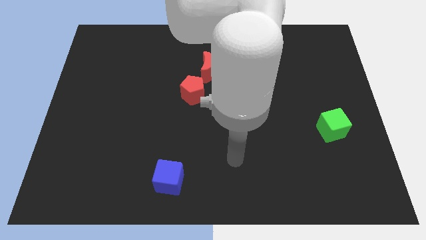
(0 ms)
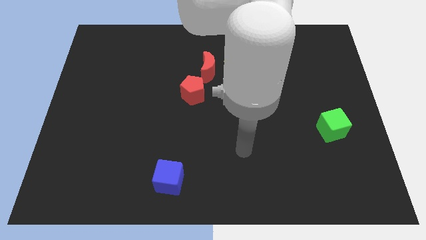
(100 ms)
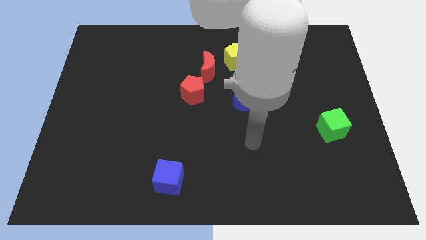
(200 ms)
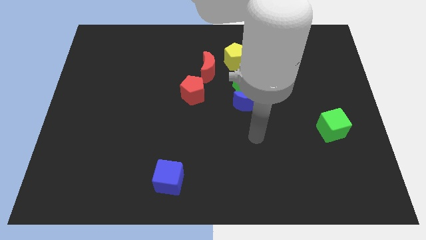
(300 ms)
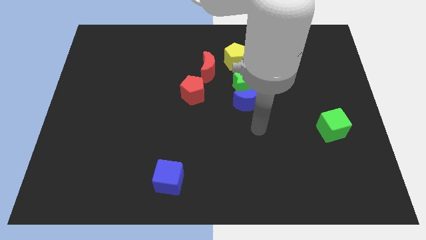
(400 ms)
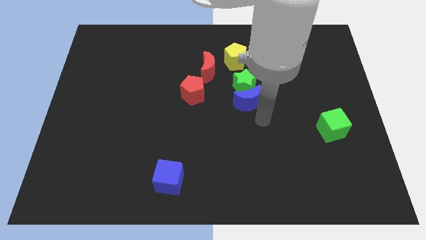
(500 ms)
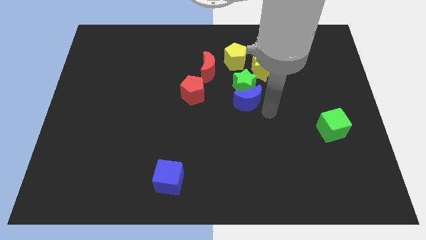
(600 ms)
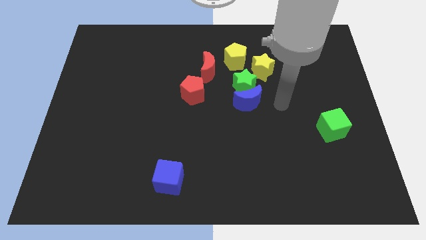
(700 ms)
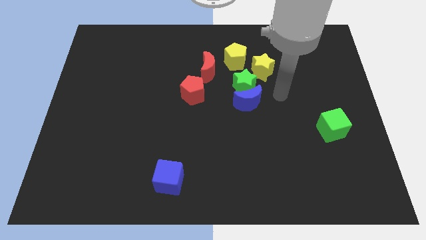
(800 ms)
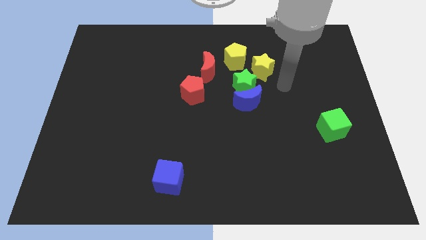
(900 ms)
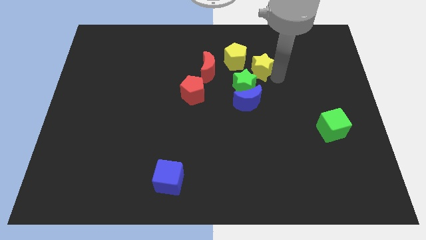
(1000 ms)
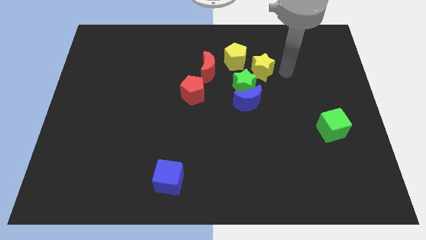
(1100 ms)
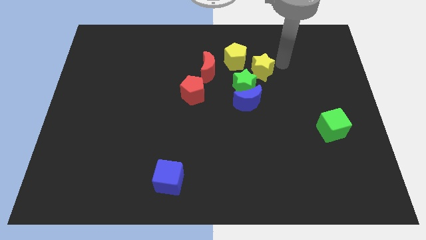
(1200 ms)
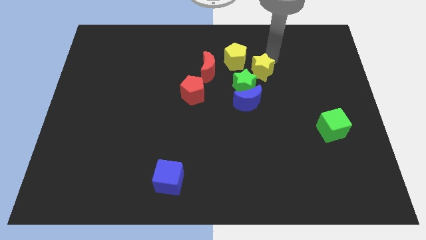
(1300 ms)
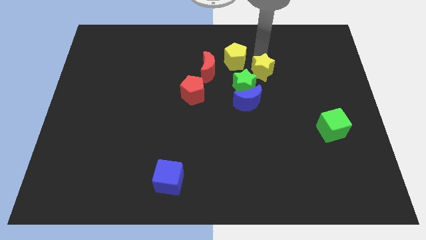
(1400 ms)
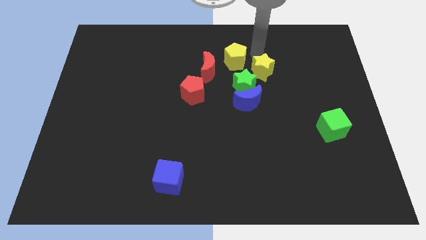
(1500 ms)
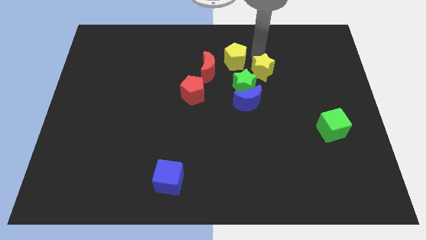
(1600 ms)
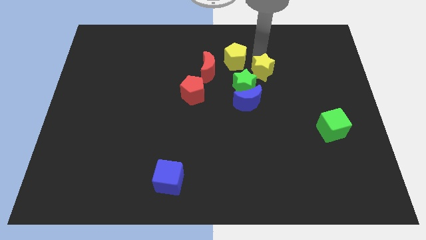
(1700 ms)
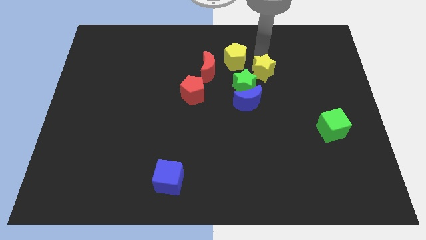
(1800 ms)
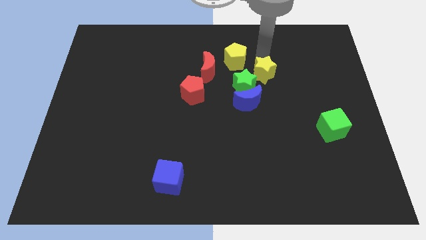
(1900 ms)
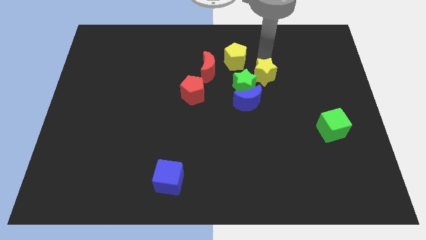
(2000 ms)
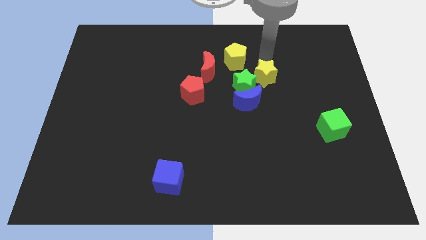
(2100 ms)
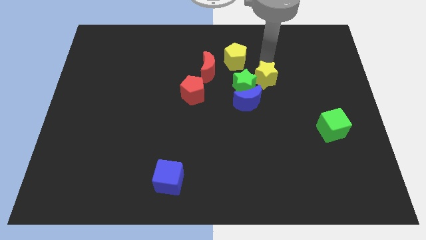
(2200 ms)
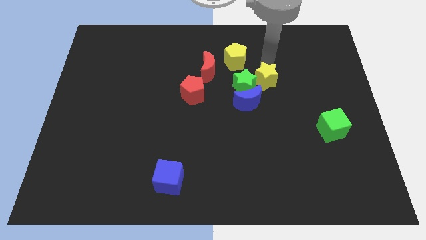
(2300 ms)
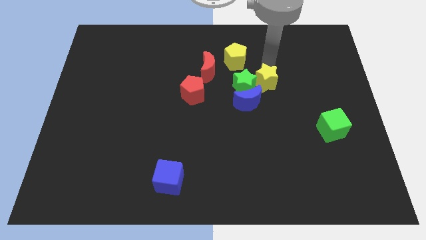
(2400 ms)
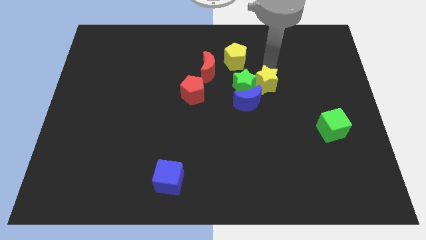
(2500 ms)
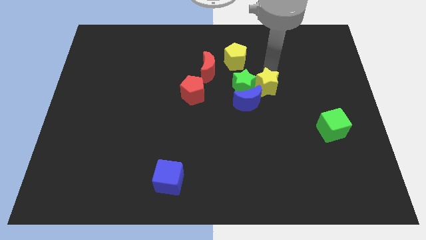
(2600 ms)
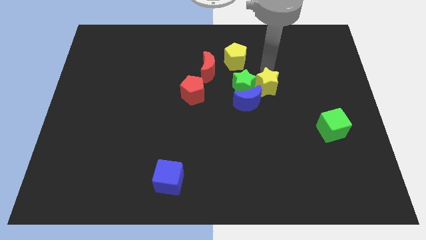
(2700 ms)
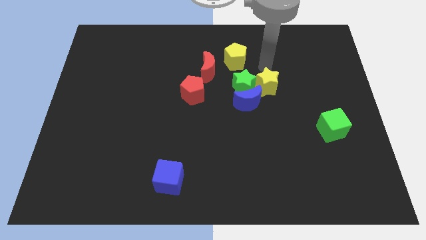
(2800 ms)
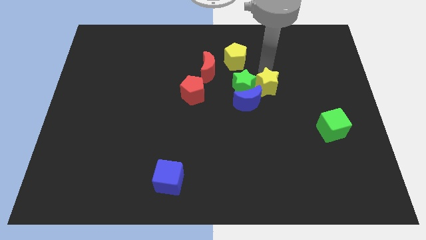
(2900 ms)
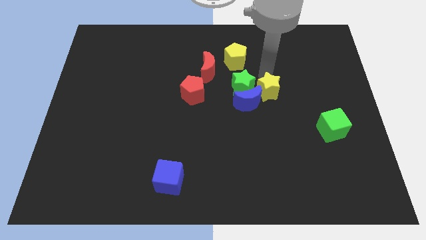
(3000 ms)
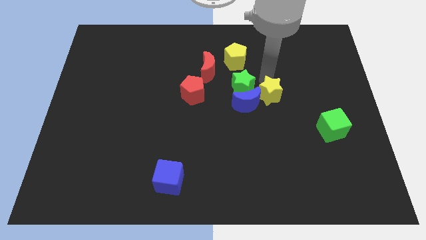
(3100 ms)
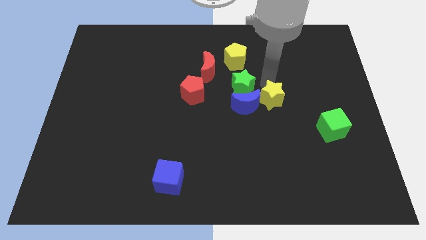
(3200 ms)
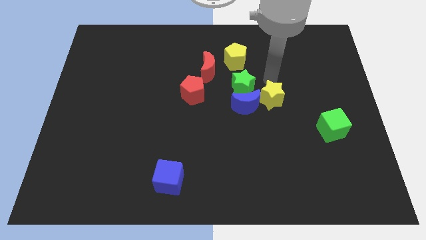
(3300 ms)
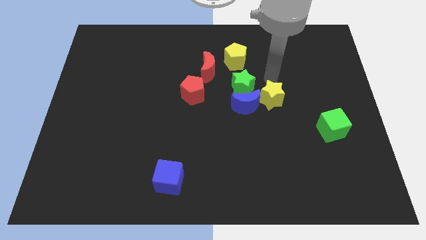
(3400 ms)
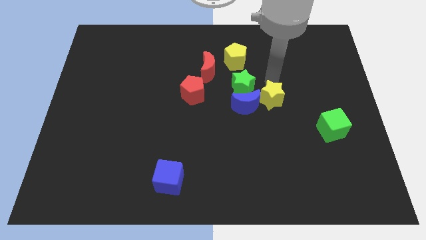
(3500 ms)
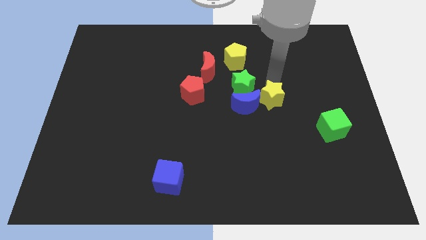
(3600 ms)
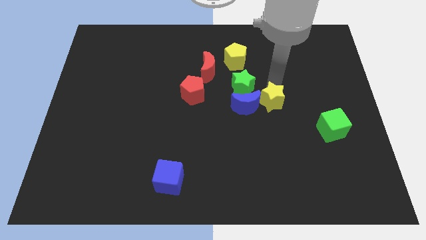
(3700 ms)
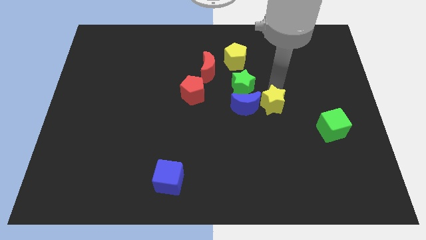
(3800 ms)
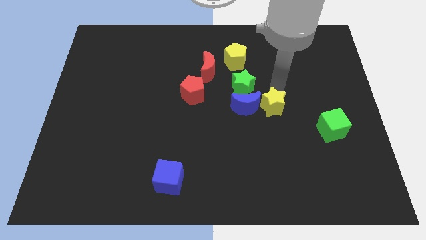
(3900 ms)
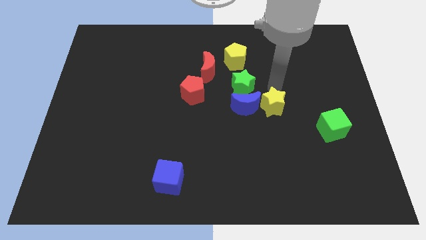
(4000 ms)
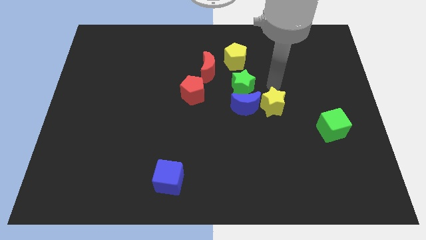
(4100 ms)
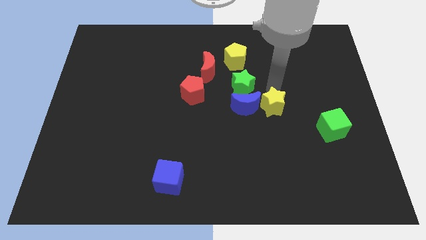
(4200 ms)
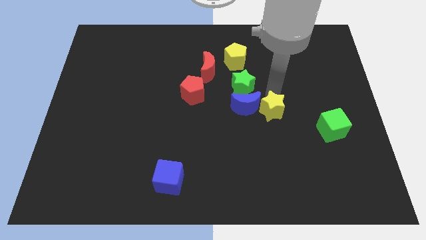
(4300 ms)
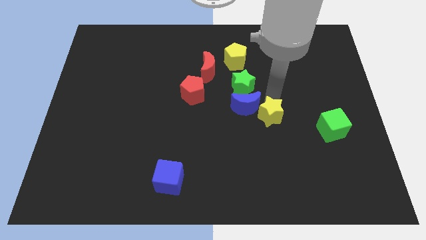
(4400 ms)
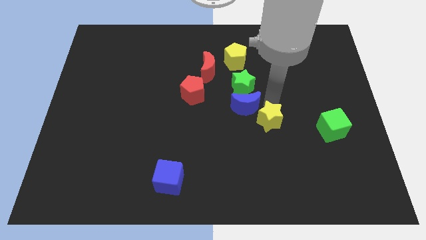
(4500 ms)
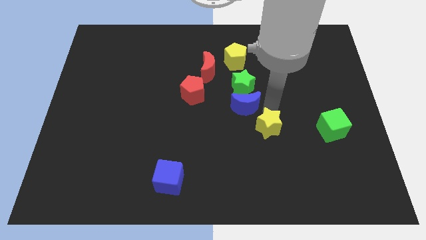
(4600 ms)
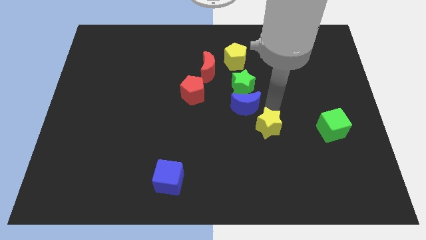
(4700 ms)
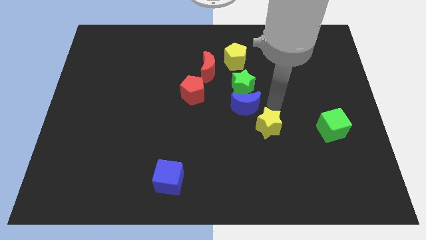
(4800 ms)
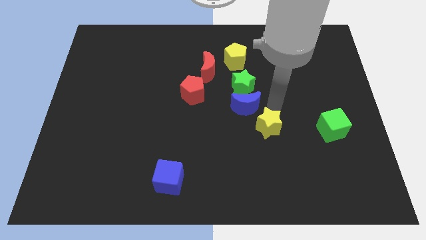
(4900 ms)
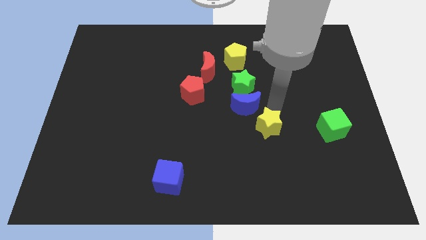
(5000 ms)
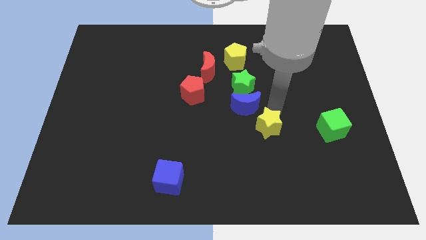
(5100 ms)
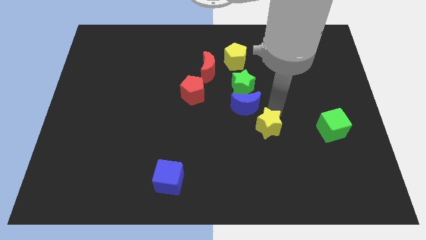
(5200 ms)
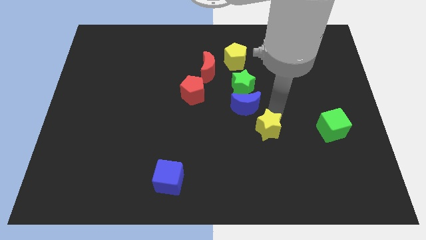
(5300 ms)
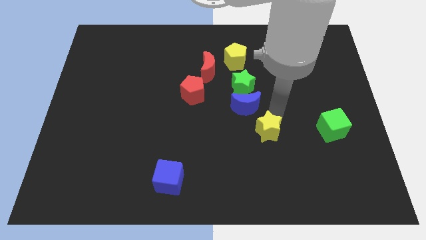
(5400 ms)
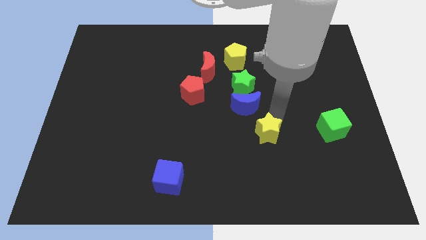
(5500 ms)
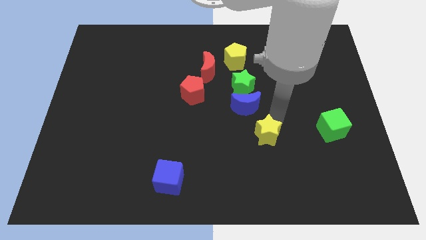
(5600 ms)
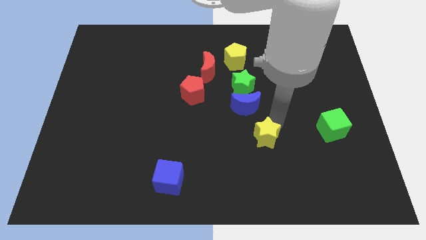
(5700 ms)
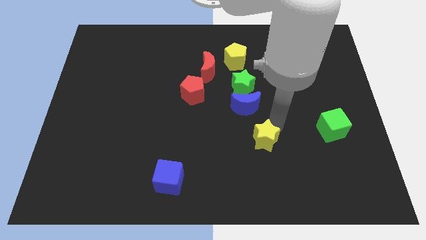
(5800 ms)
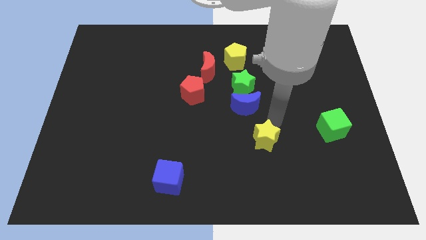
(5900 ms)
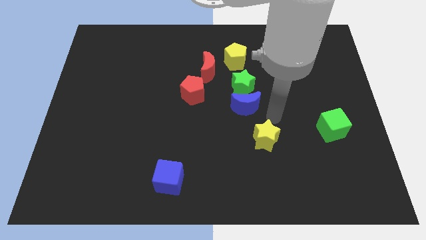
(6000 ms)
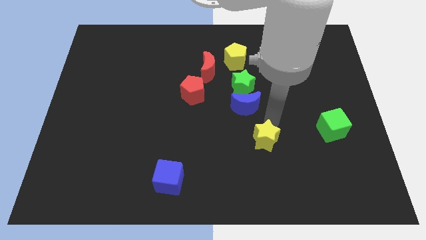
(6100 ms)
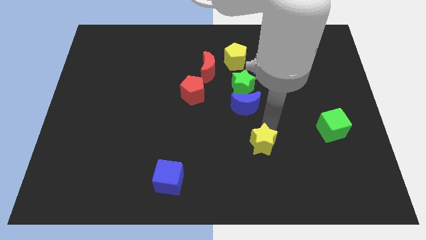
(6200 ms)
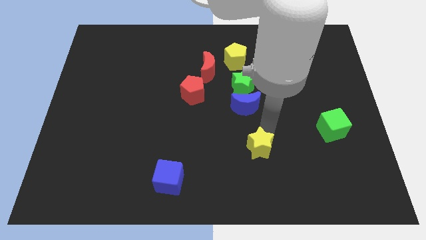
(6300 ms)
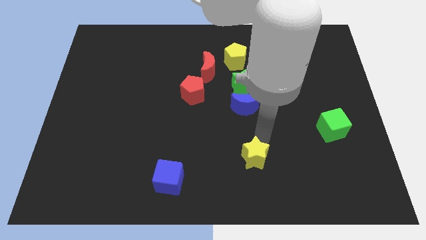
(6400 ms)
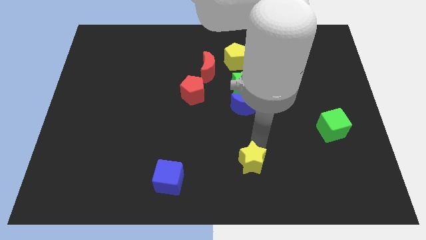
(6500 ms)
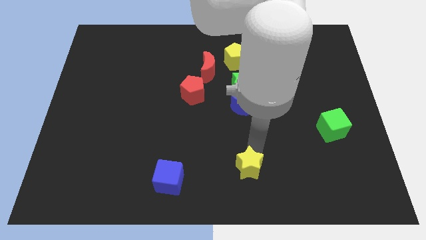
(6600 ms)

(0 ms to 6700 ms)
slide the yellow star to the bottom

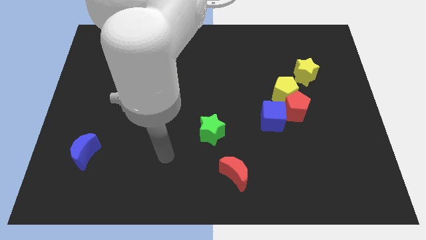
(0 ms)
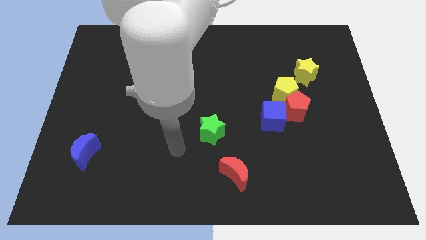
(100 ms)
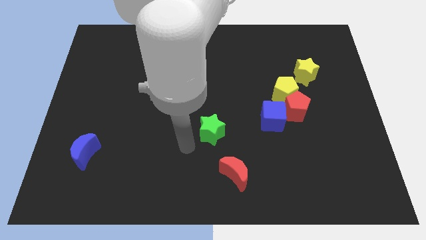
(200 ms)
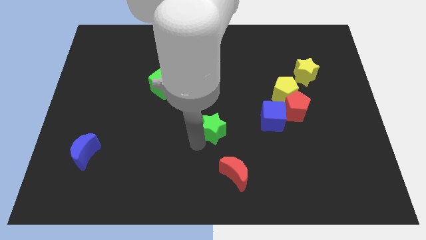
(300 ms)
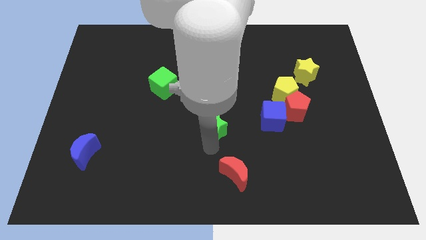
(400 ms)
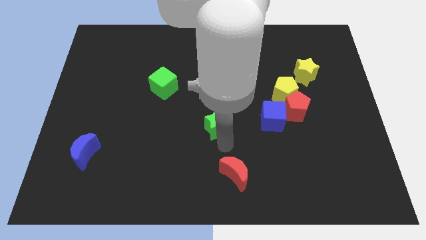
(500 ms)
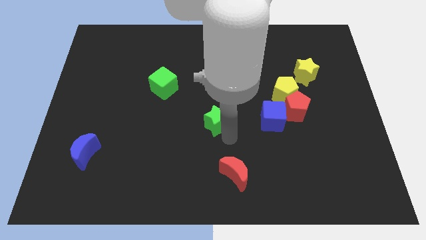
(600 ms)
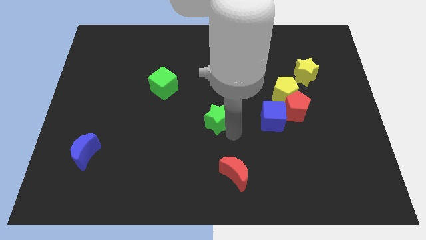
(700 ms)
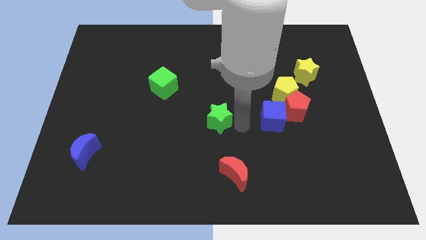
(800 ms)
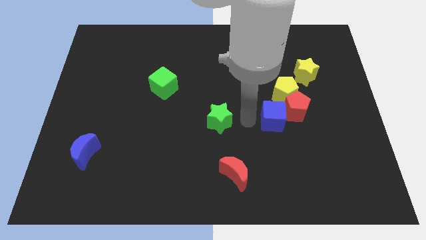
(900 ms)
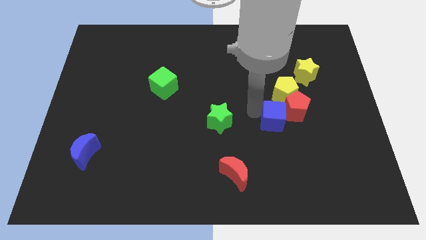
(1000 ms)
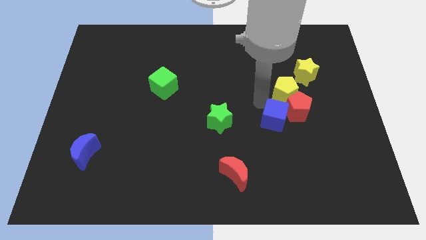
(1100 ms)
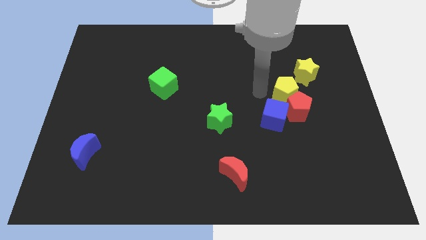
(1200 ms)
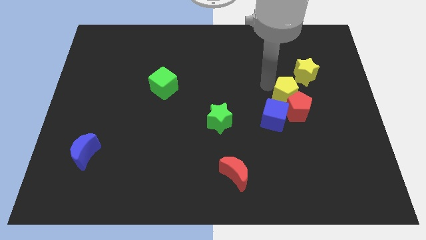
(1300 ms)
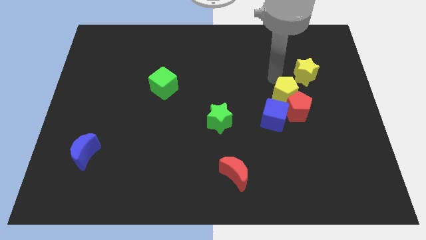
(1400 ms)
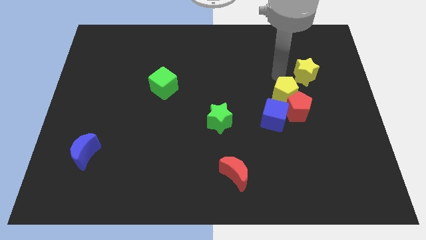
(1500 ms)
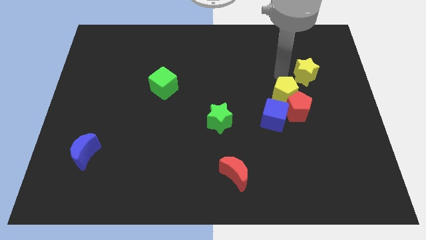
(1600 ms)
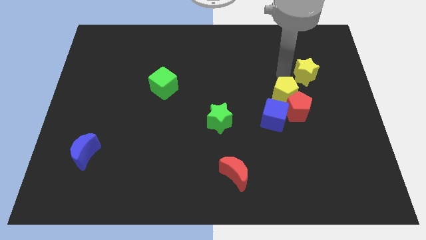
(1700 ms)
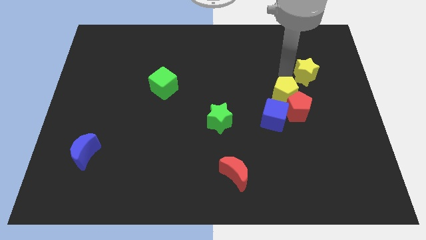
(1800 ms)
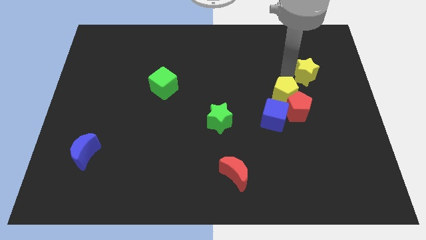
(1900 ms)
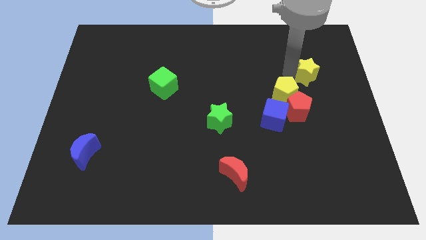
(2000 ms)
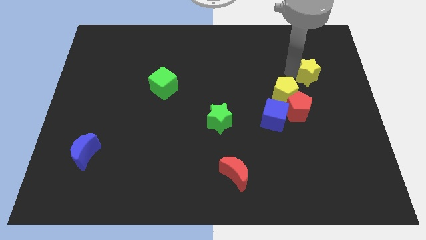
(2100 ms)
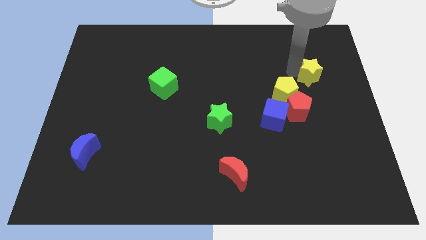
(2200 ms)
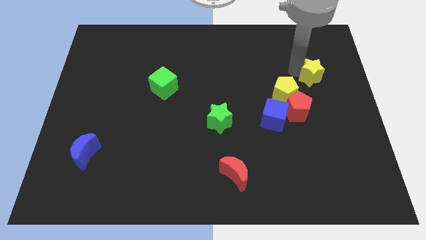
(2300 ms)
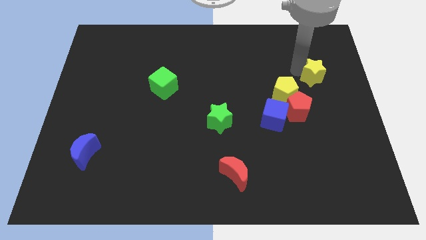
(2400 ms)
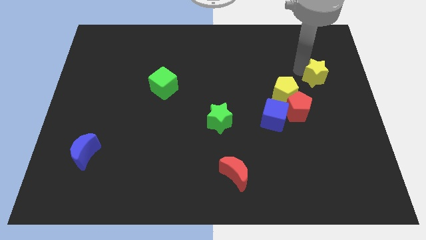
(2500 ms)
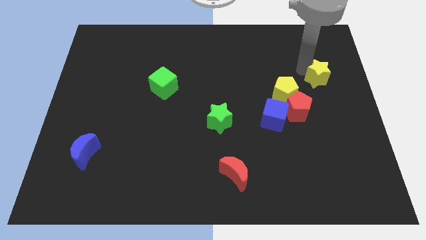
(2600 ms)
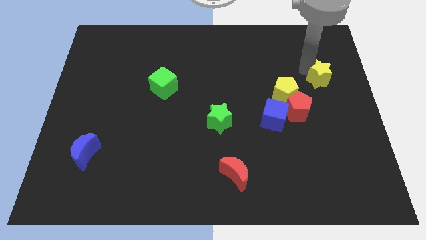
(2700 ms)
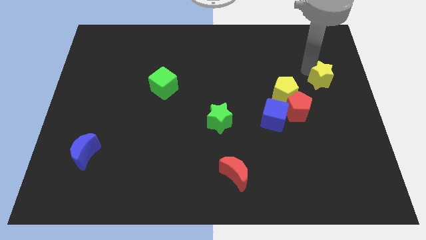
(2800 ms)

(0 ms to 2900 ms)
slide the yellow star to the right side of the board
